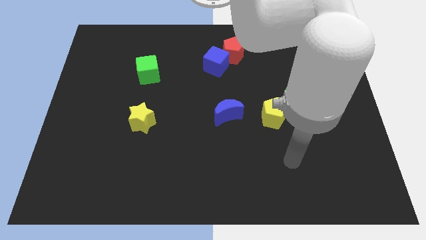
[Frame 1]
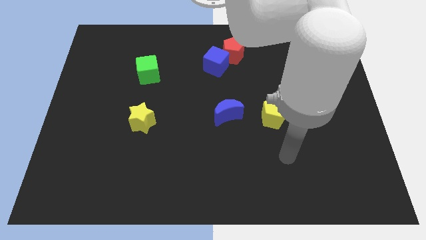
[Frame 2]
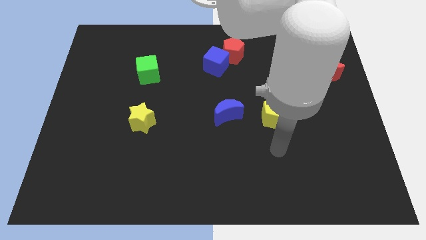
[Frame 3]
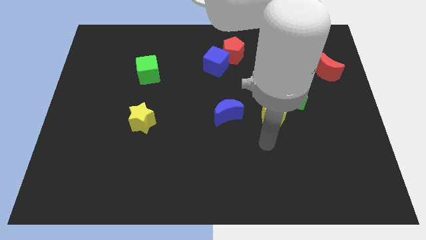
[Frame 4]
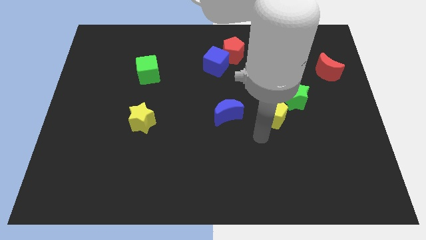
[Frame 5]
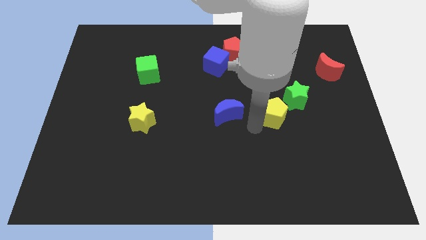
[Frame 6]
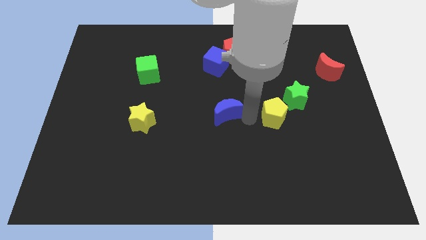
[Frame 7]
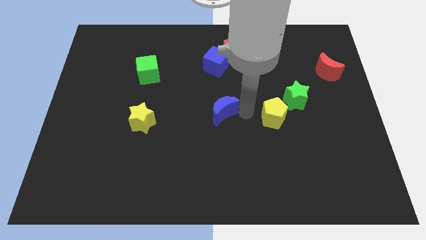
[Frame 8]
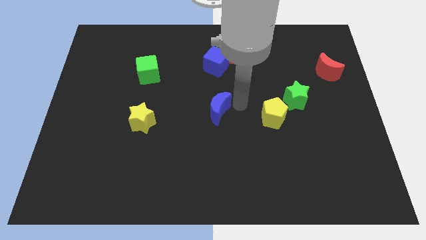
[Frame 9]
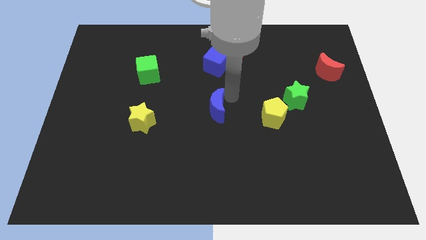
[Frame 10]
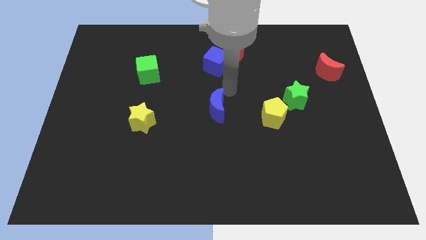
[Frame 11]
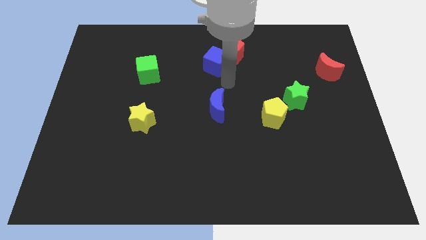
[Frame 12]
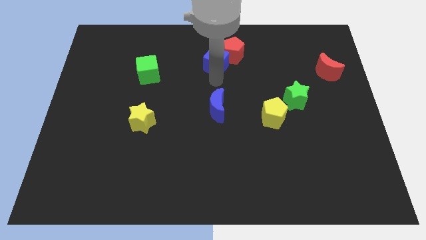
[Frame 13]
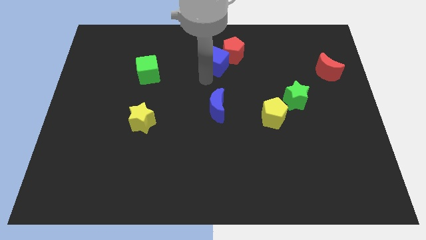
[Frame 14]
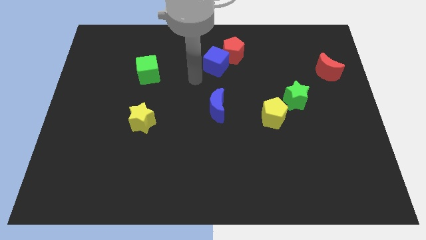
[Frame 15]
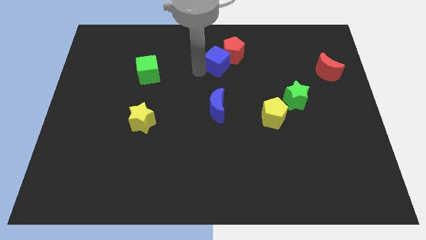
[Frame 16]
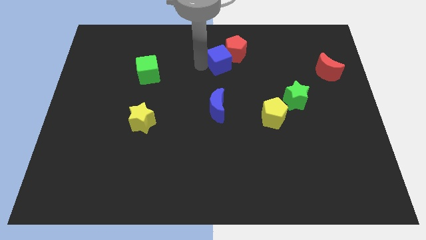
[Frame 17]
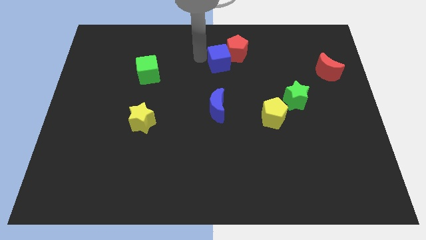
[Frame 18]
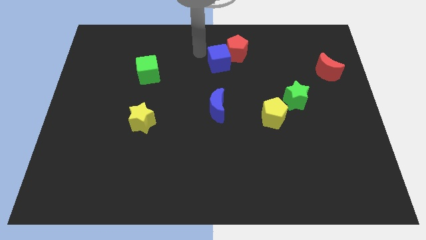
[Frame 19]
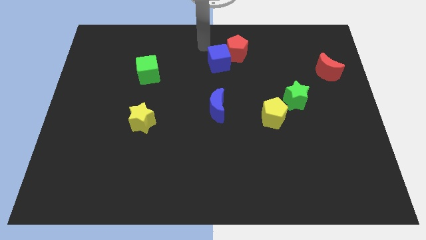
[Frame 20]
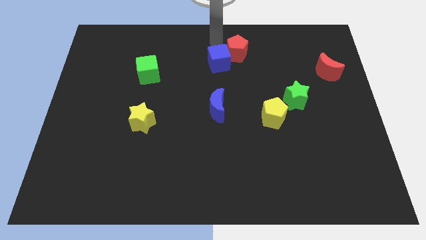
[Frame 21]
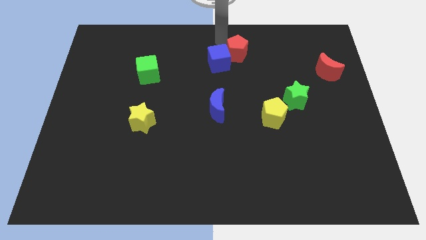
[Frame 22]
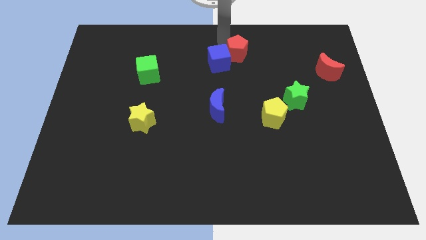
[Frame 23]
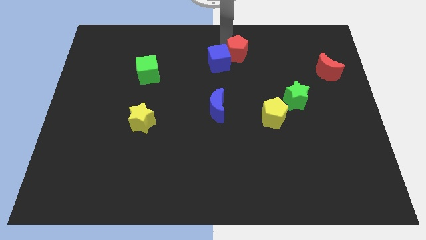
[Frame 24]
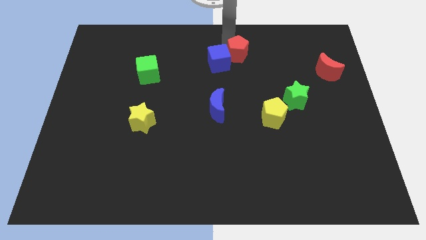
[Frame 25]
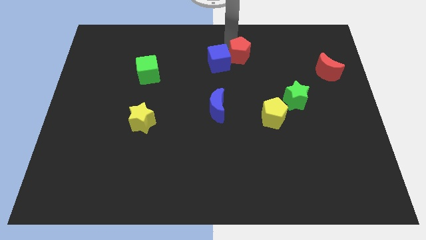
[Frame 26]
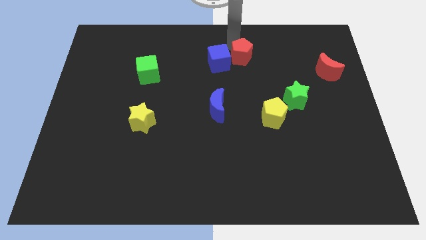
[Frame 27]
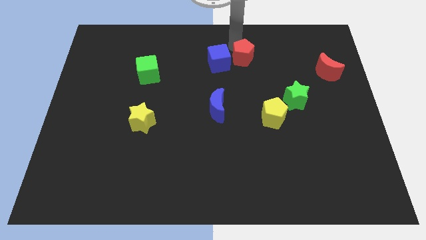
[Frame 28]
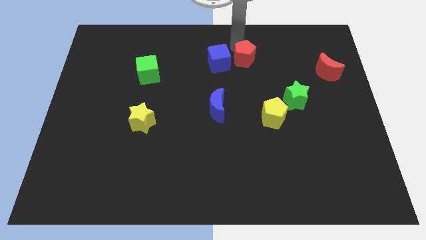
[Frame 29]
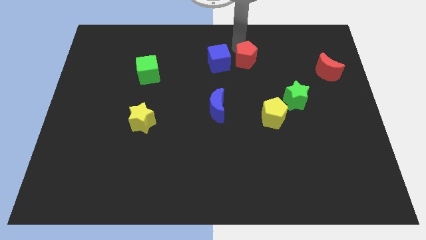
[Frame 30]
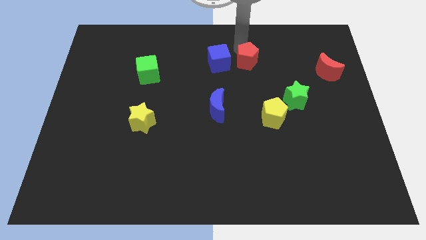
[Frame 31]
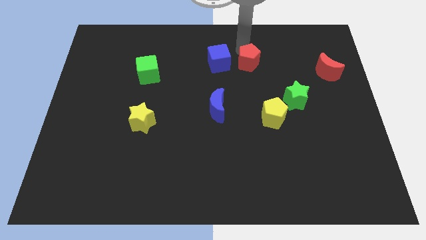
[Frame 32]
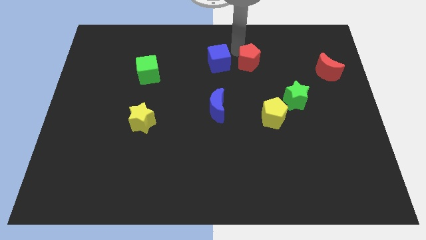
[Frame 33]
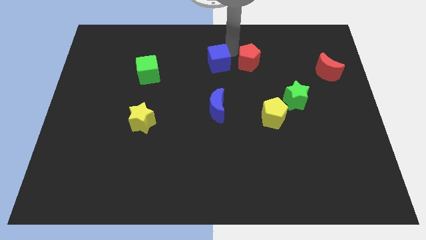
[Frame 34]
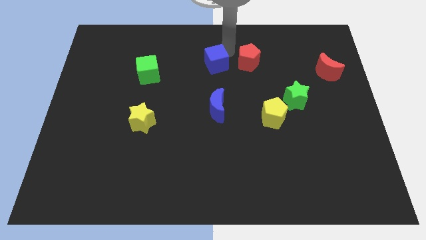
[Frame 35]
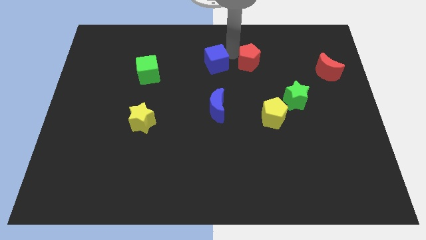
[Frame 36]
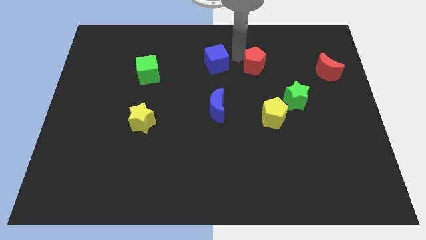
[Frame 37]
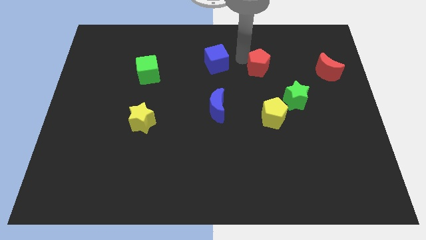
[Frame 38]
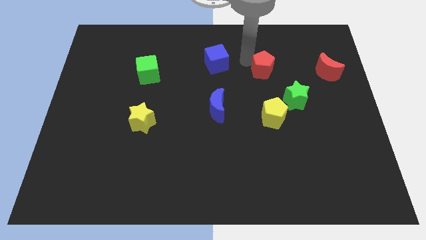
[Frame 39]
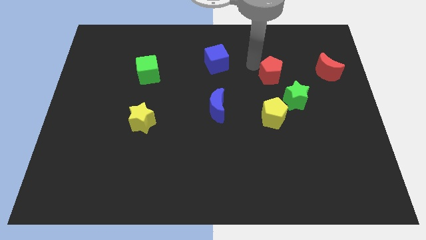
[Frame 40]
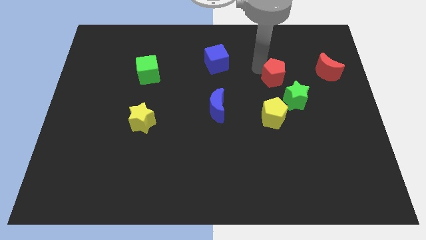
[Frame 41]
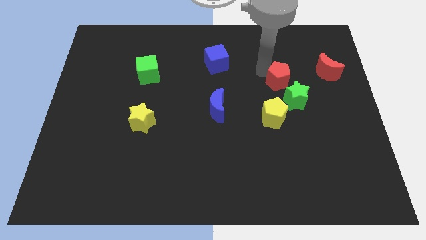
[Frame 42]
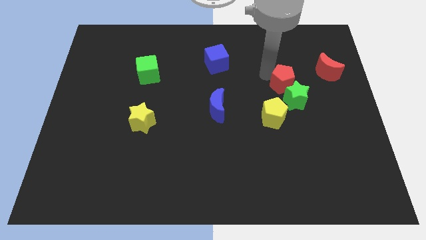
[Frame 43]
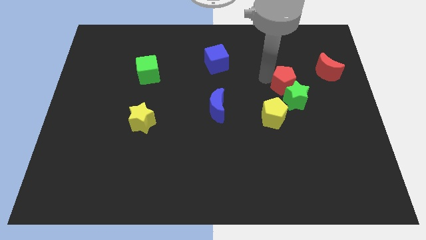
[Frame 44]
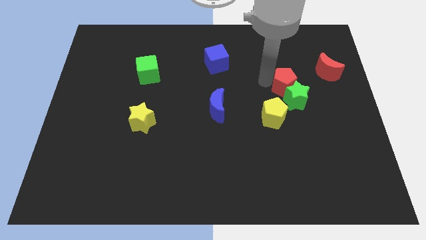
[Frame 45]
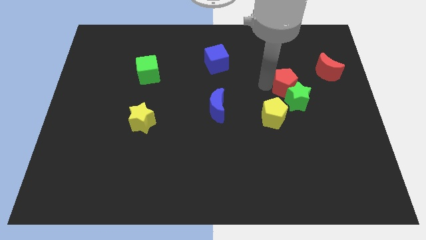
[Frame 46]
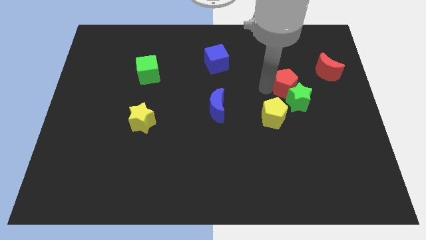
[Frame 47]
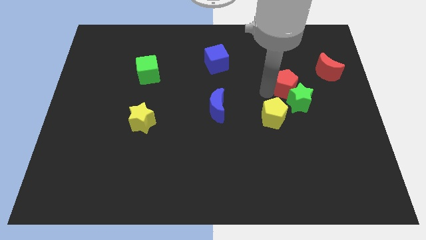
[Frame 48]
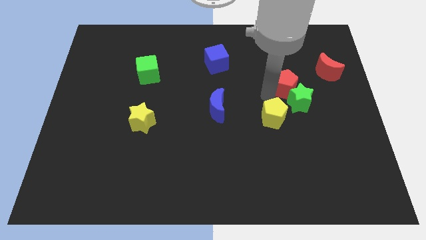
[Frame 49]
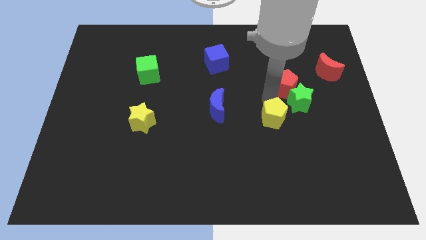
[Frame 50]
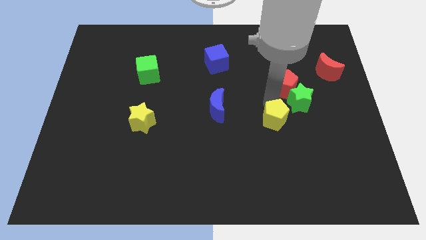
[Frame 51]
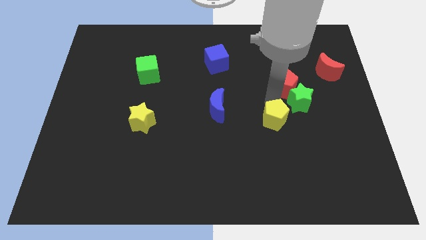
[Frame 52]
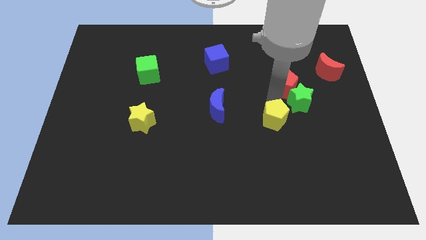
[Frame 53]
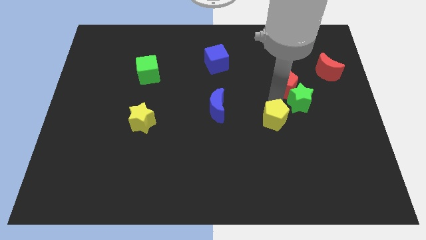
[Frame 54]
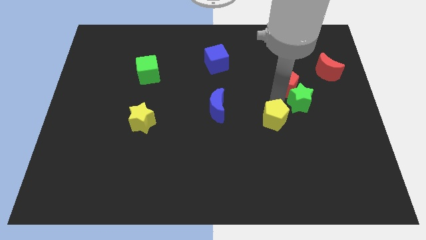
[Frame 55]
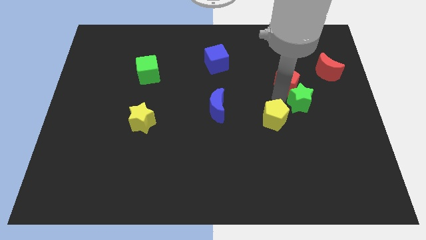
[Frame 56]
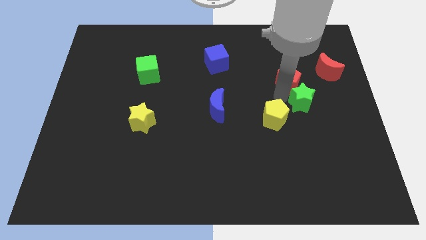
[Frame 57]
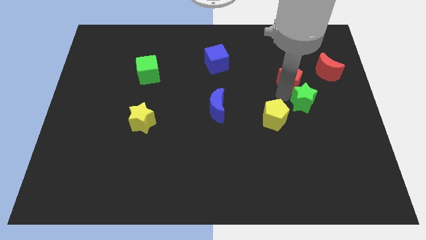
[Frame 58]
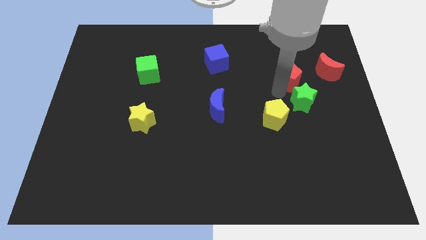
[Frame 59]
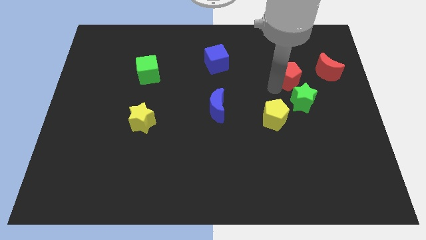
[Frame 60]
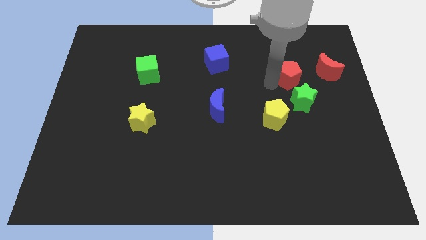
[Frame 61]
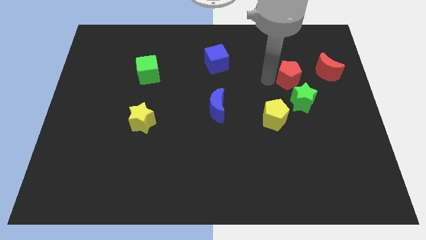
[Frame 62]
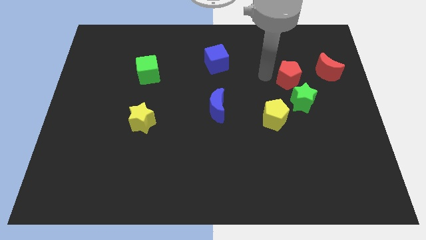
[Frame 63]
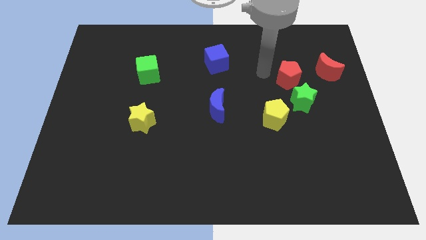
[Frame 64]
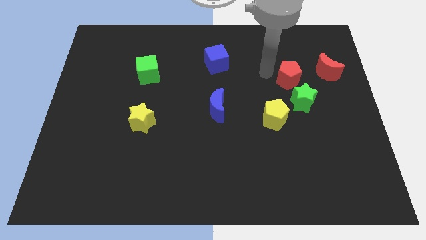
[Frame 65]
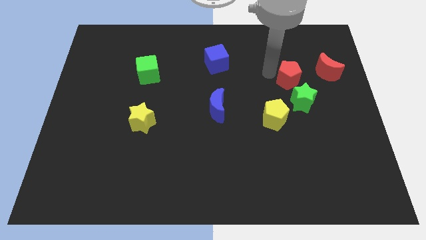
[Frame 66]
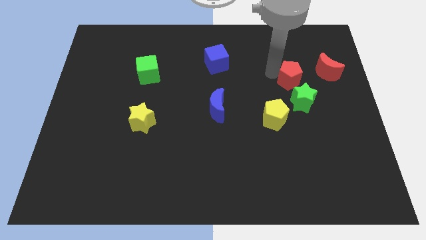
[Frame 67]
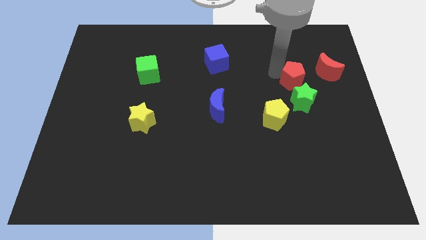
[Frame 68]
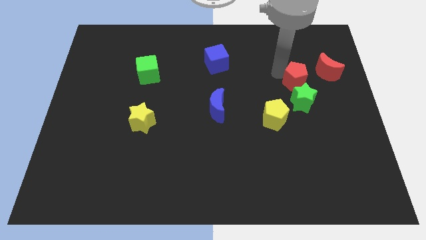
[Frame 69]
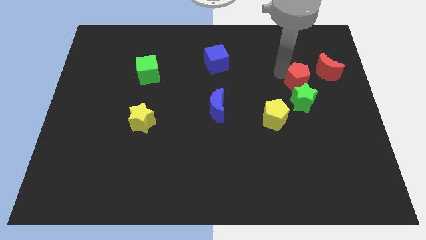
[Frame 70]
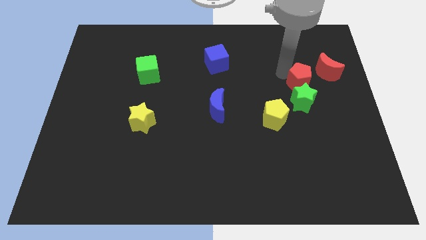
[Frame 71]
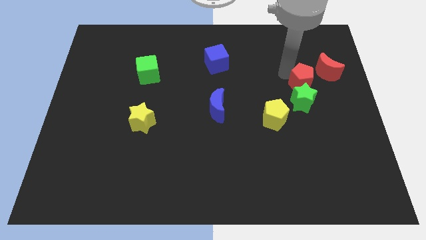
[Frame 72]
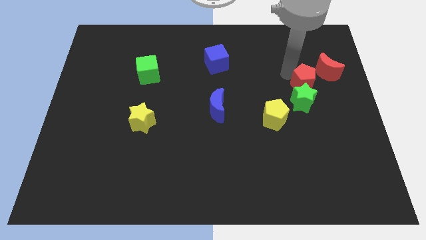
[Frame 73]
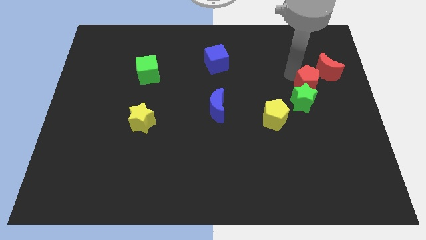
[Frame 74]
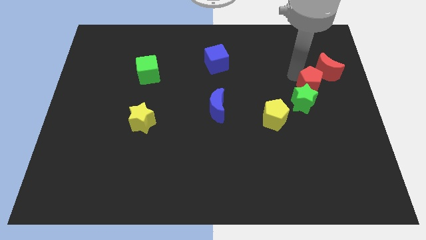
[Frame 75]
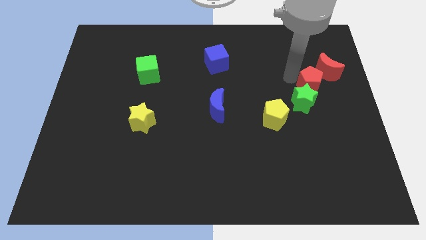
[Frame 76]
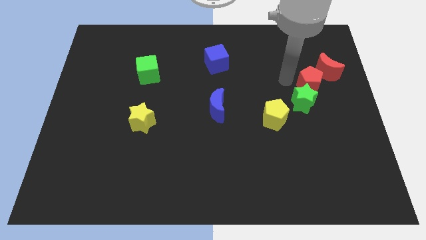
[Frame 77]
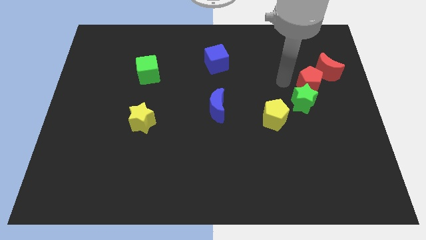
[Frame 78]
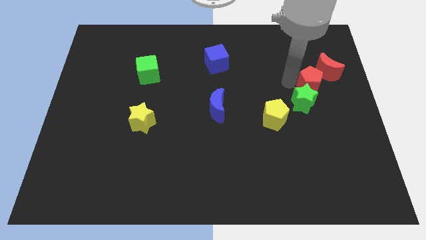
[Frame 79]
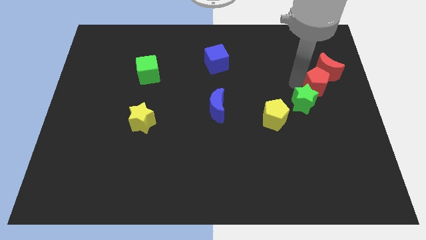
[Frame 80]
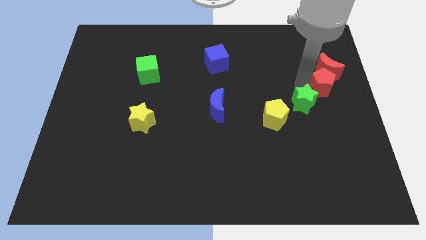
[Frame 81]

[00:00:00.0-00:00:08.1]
push the red pentagon to the center right
